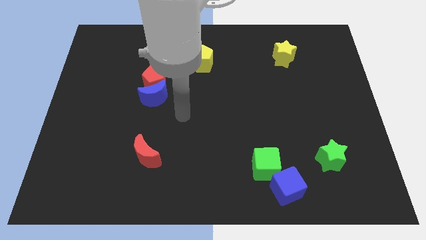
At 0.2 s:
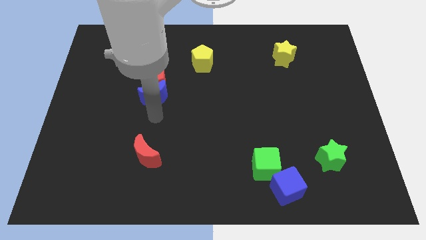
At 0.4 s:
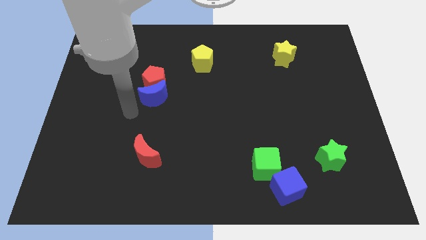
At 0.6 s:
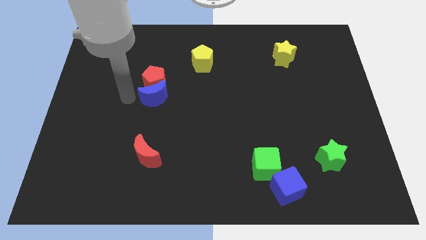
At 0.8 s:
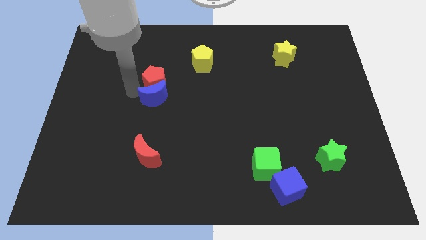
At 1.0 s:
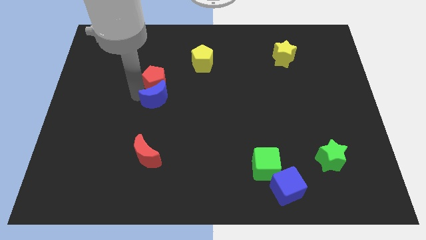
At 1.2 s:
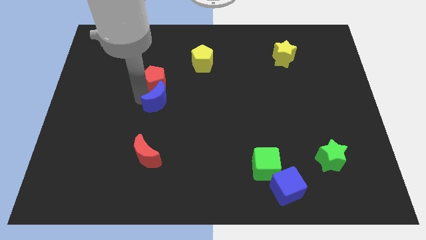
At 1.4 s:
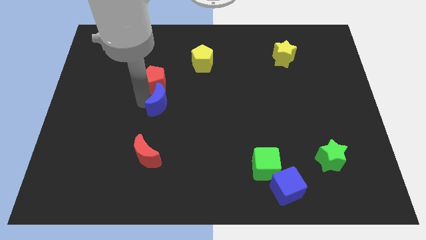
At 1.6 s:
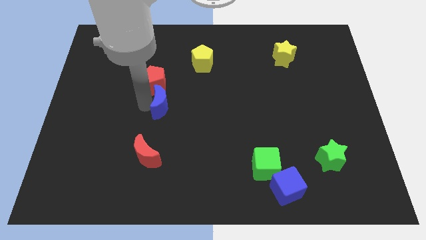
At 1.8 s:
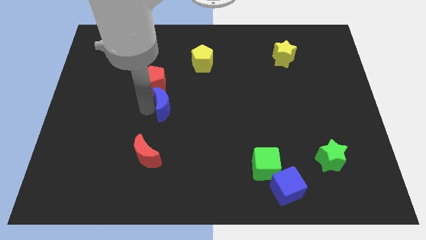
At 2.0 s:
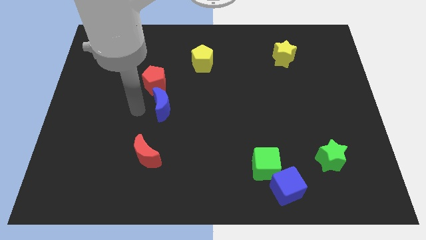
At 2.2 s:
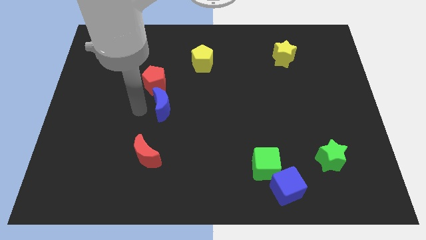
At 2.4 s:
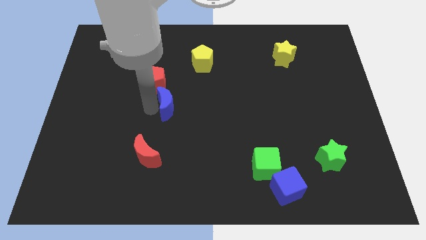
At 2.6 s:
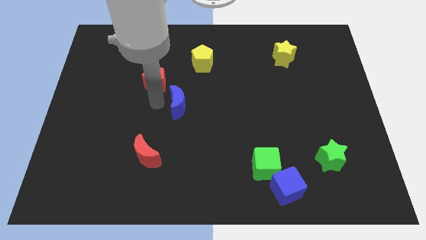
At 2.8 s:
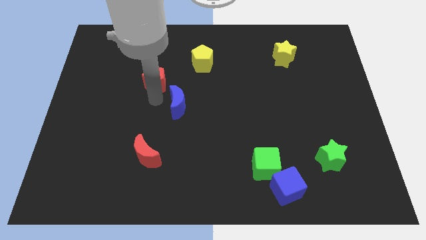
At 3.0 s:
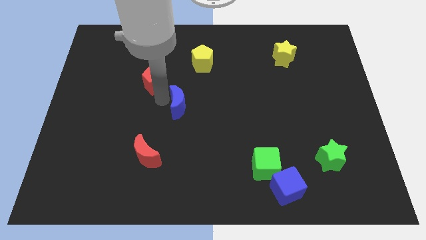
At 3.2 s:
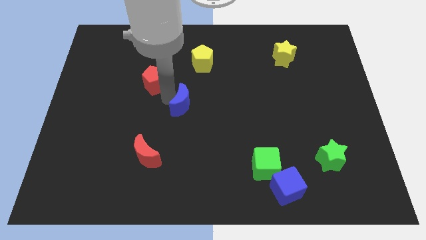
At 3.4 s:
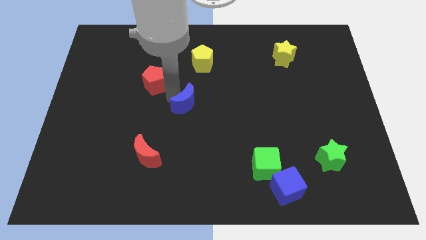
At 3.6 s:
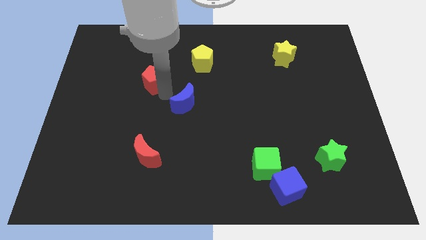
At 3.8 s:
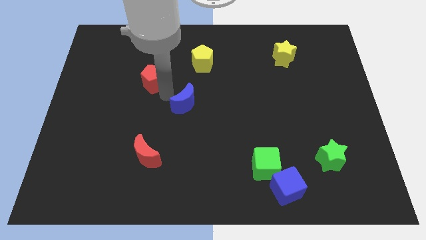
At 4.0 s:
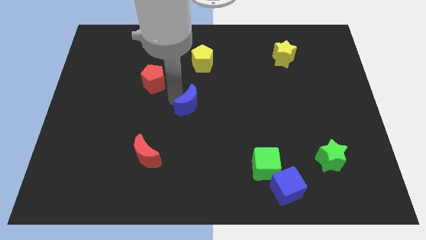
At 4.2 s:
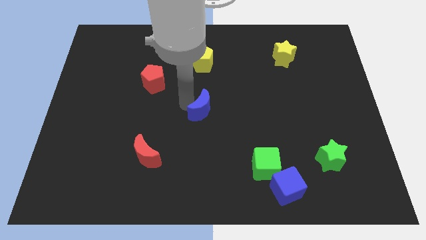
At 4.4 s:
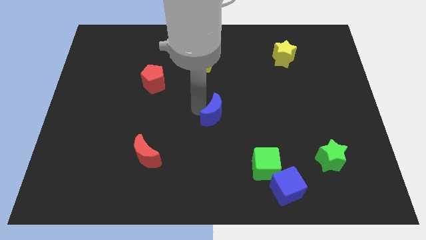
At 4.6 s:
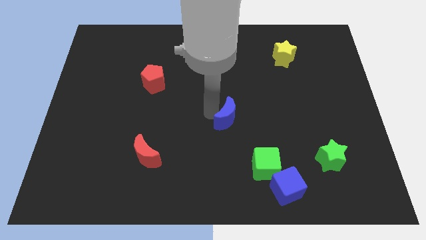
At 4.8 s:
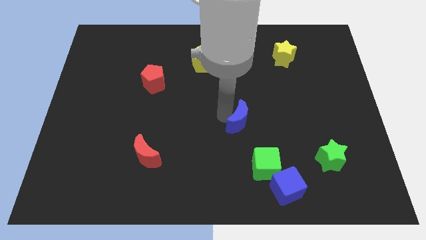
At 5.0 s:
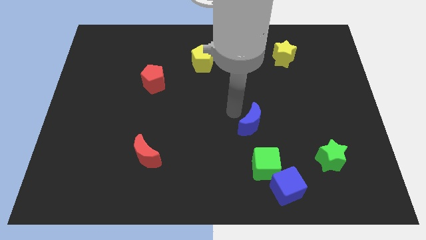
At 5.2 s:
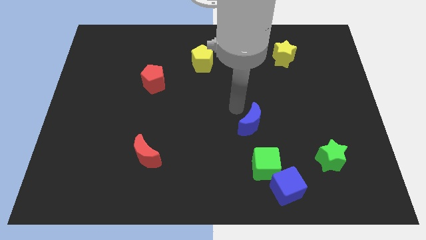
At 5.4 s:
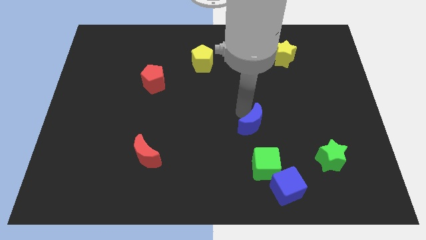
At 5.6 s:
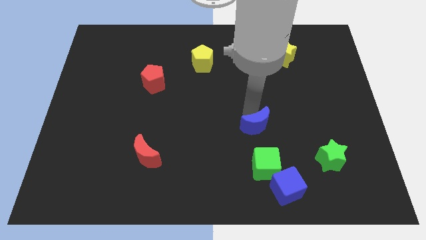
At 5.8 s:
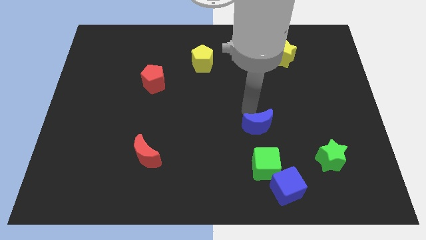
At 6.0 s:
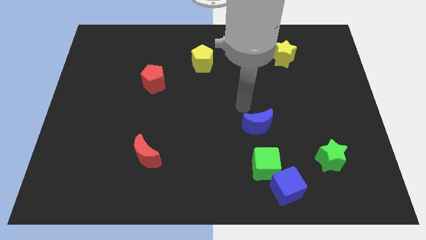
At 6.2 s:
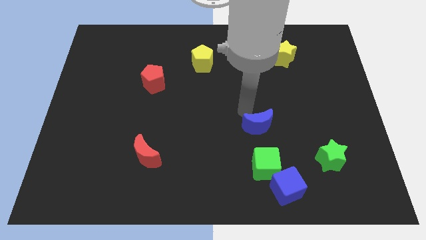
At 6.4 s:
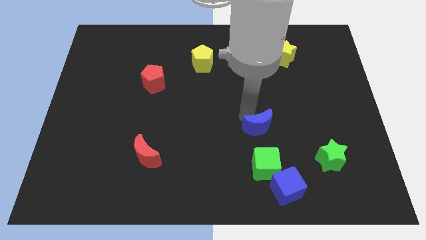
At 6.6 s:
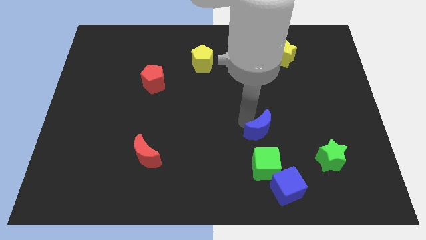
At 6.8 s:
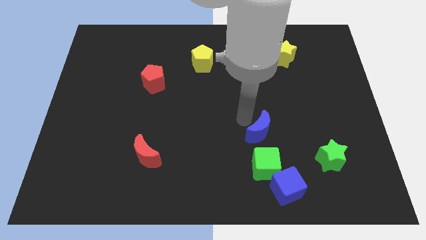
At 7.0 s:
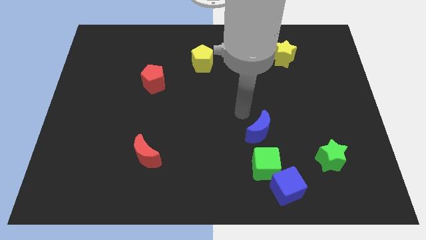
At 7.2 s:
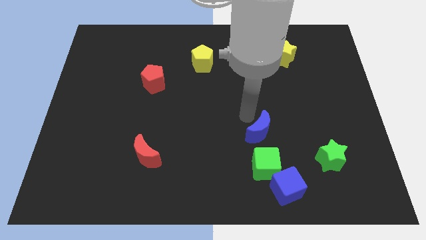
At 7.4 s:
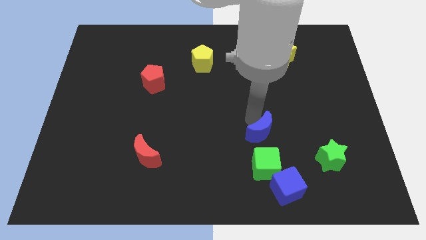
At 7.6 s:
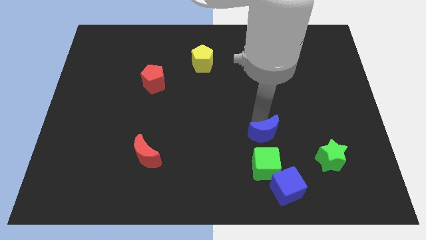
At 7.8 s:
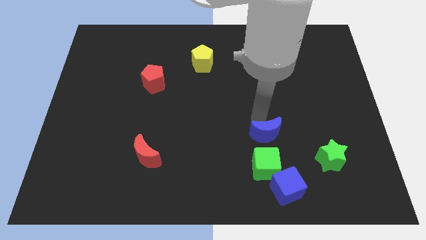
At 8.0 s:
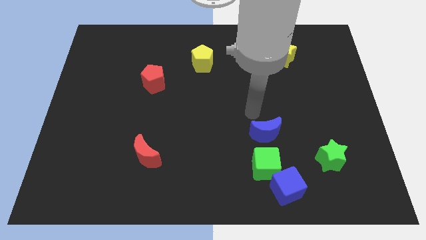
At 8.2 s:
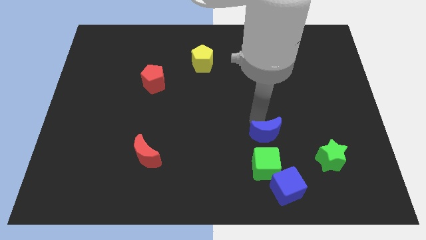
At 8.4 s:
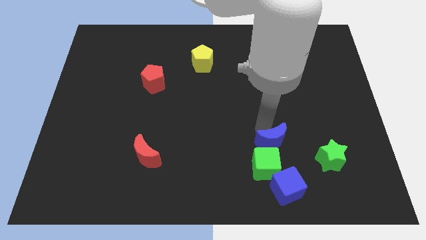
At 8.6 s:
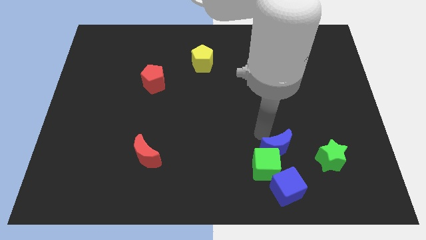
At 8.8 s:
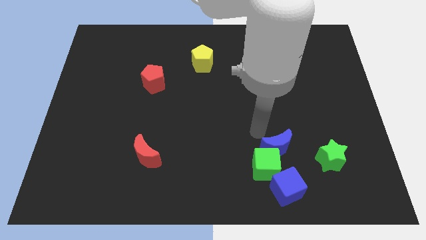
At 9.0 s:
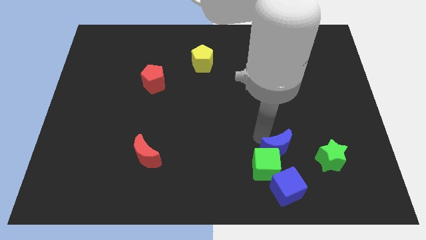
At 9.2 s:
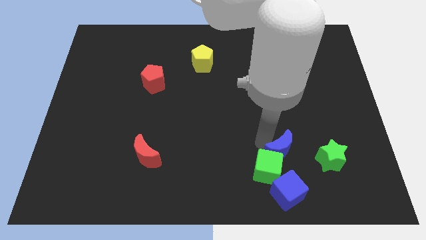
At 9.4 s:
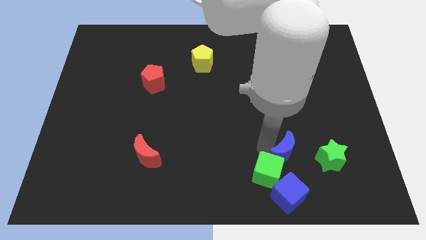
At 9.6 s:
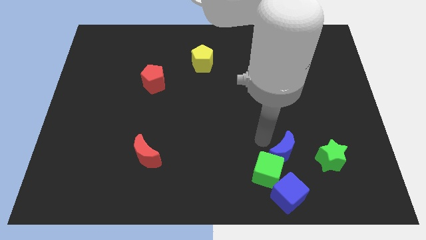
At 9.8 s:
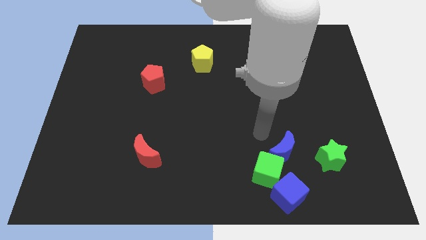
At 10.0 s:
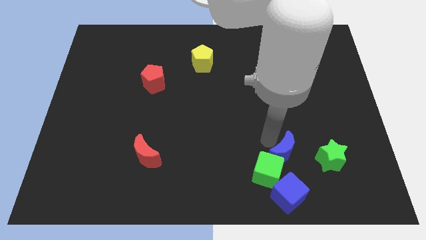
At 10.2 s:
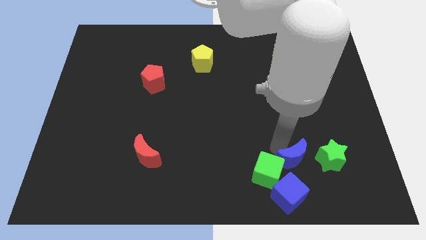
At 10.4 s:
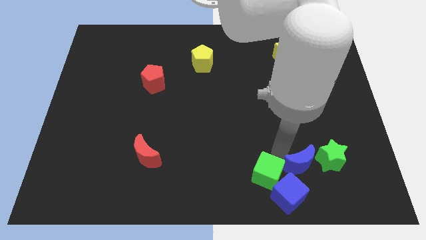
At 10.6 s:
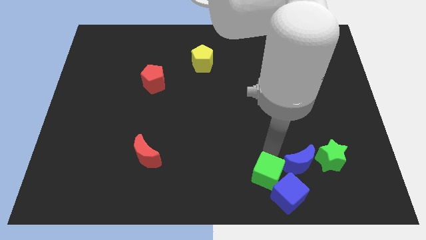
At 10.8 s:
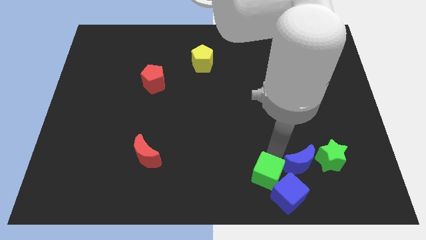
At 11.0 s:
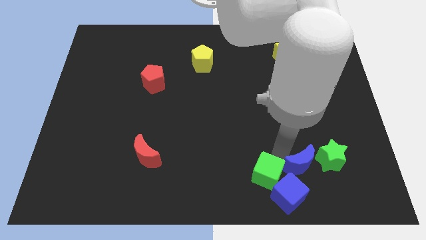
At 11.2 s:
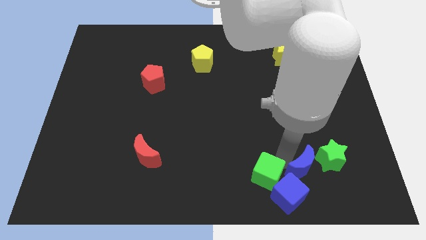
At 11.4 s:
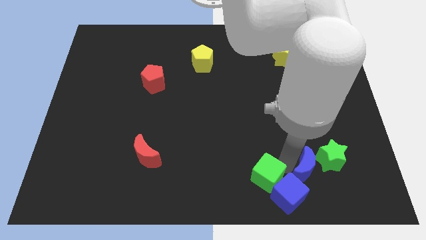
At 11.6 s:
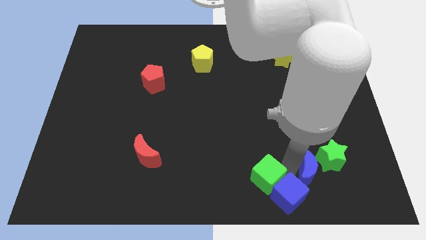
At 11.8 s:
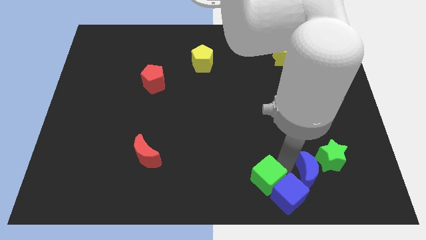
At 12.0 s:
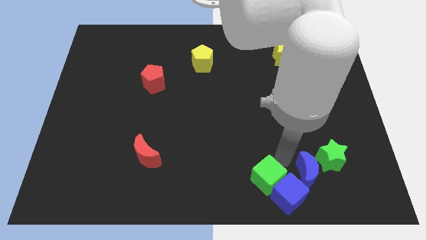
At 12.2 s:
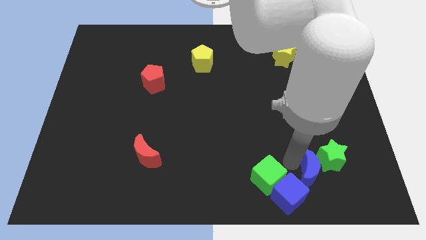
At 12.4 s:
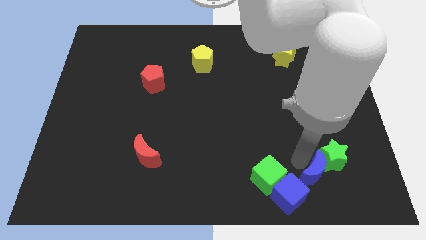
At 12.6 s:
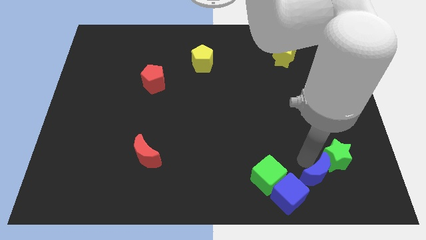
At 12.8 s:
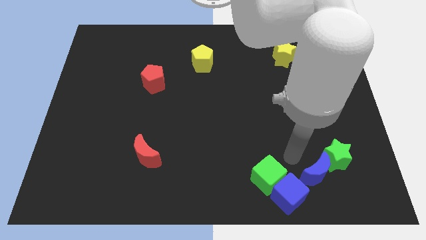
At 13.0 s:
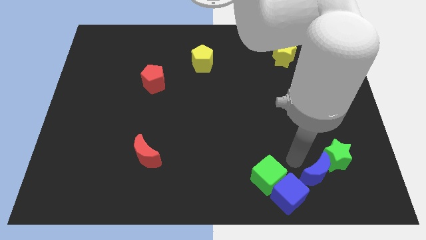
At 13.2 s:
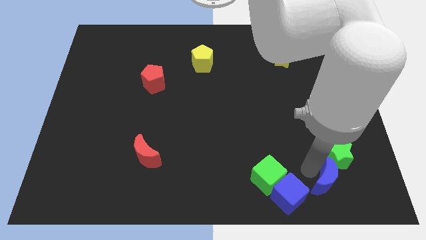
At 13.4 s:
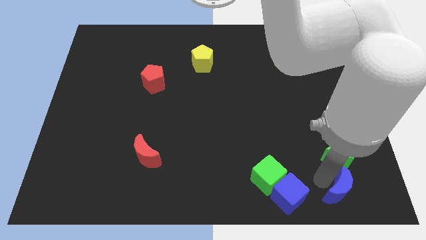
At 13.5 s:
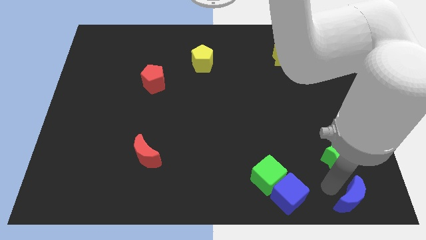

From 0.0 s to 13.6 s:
push the blue moon to the lower right corner
